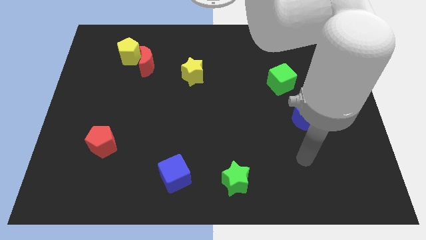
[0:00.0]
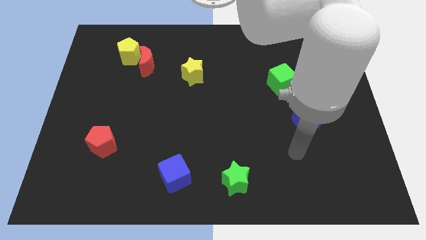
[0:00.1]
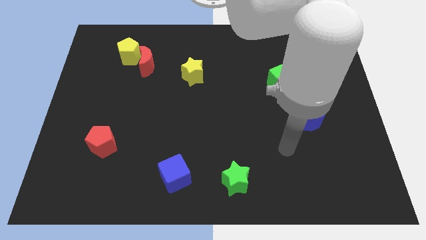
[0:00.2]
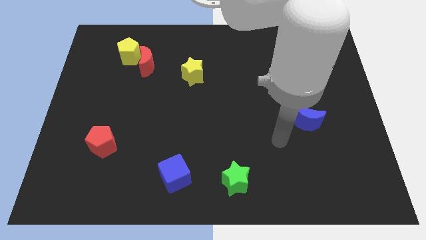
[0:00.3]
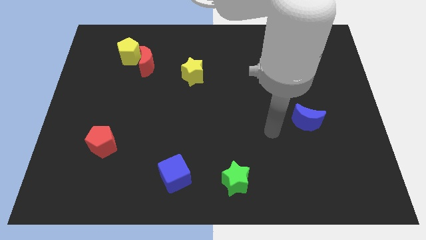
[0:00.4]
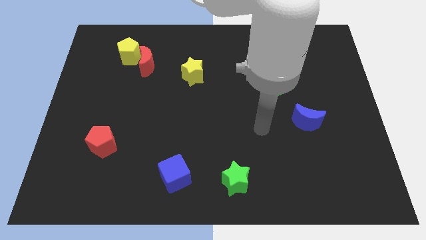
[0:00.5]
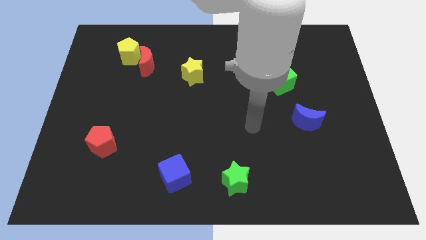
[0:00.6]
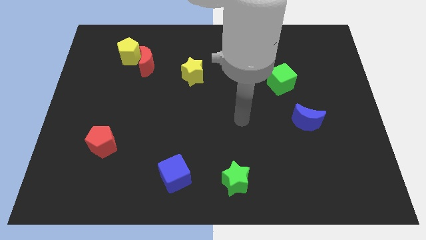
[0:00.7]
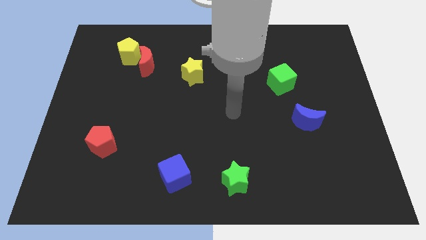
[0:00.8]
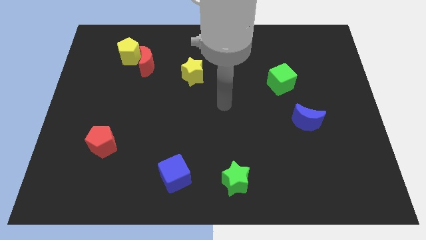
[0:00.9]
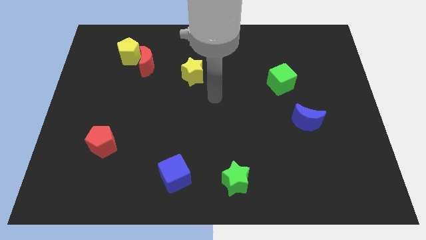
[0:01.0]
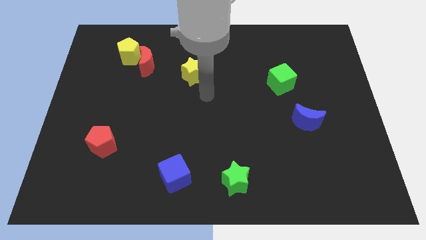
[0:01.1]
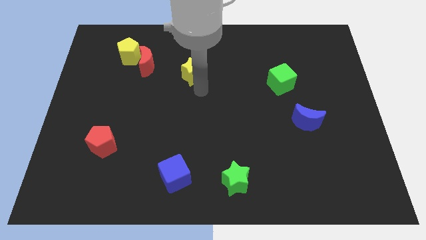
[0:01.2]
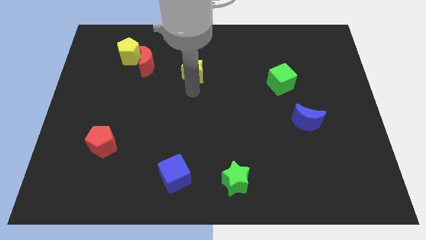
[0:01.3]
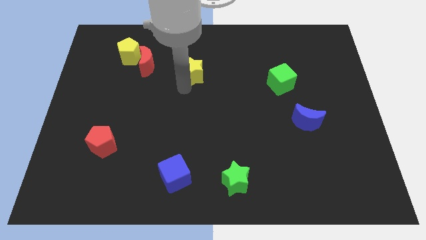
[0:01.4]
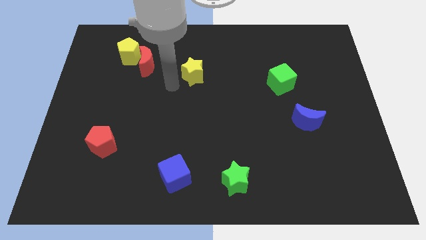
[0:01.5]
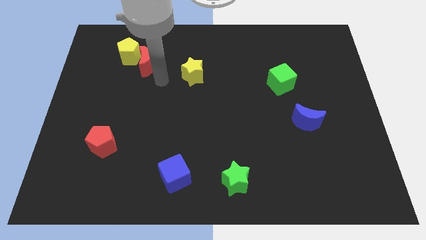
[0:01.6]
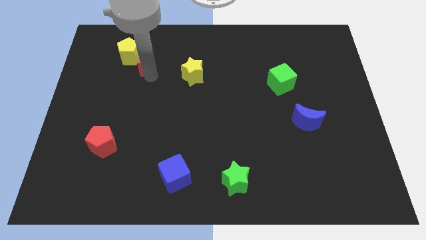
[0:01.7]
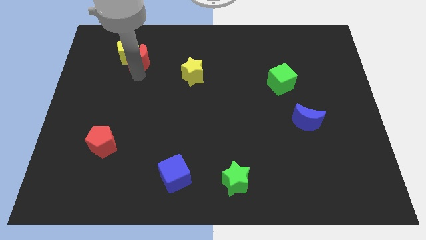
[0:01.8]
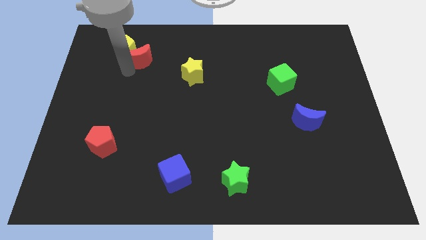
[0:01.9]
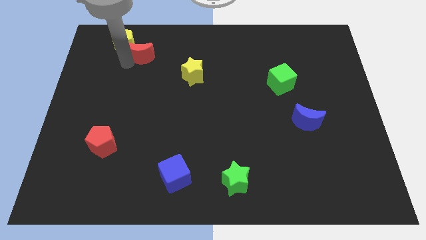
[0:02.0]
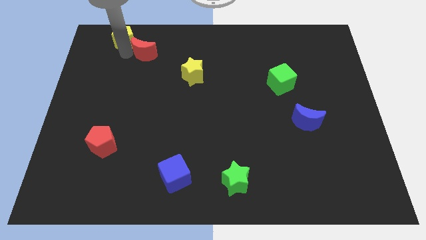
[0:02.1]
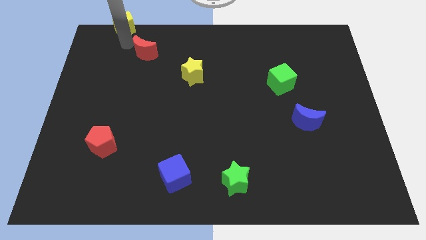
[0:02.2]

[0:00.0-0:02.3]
move the red moon away from the yellow pentagon

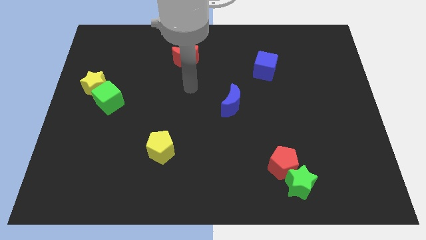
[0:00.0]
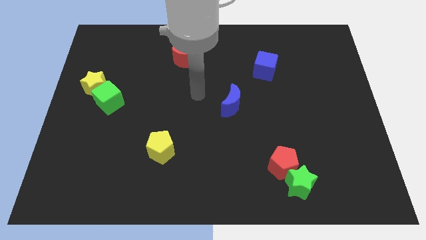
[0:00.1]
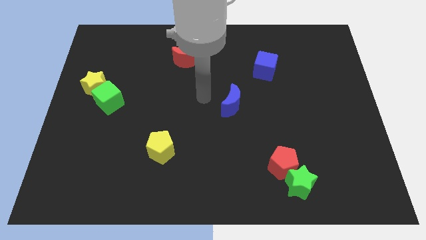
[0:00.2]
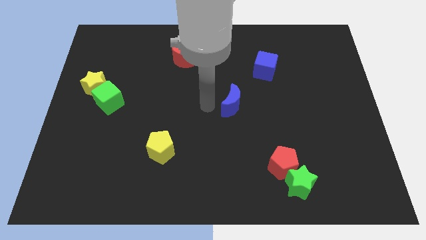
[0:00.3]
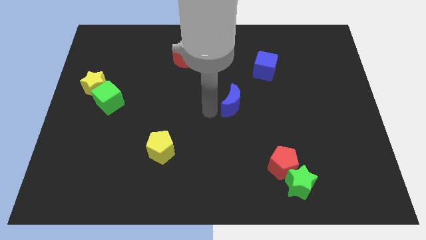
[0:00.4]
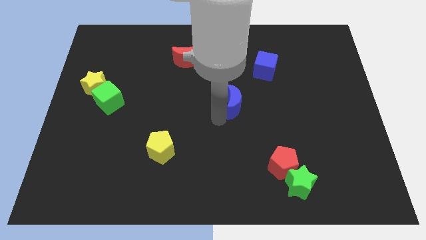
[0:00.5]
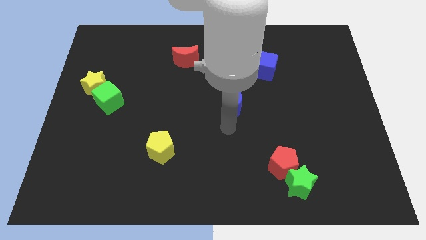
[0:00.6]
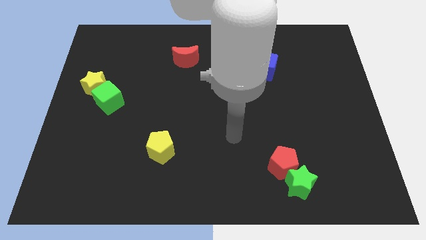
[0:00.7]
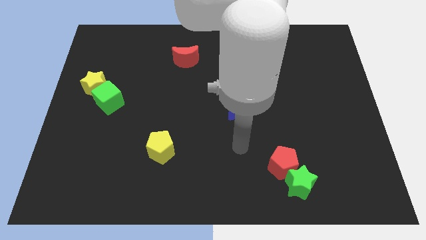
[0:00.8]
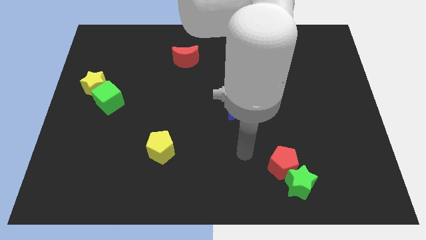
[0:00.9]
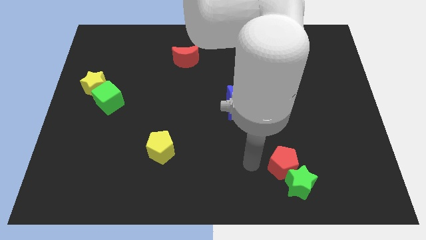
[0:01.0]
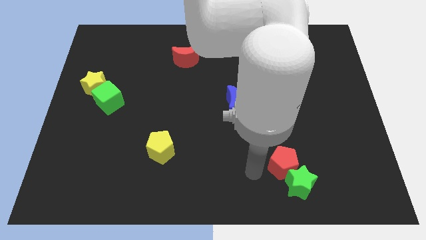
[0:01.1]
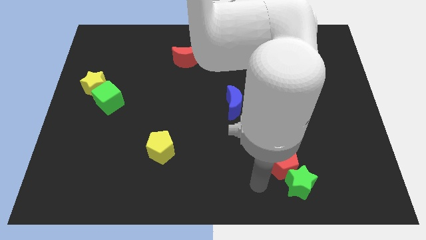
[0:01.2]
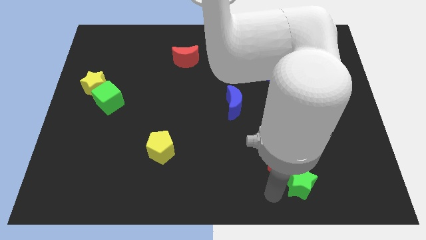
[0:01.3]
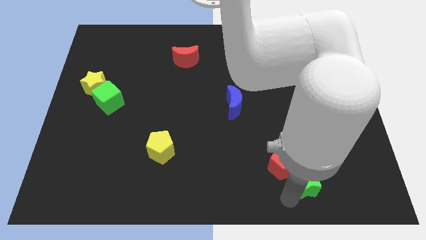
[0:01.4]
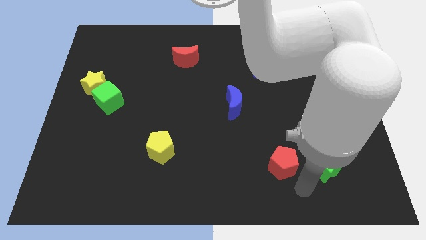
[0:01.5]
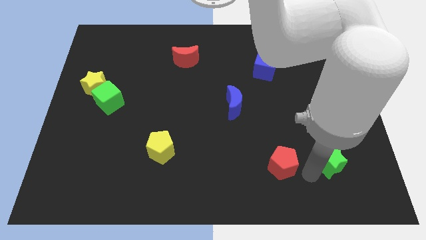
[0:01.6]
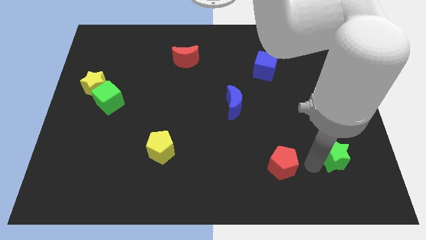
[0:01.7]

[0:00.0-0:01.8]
pull the red pentagon apart from the green star

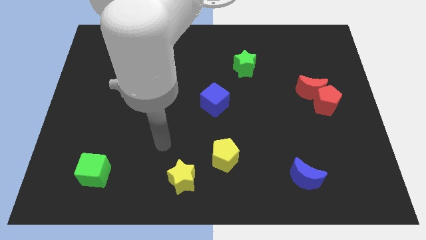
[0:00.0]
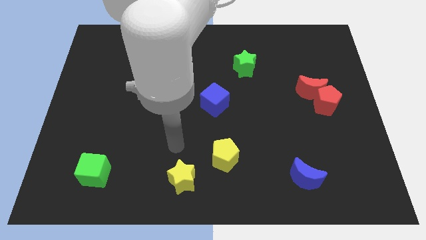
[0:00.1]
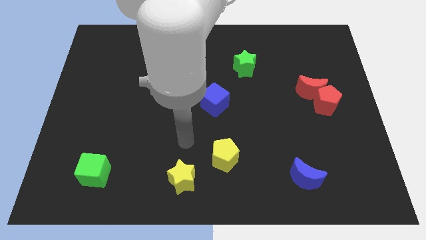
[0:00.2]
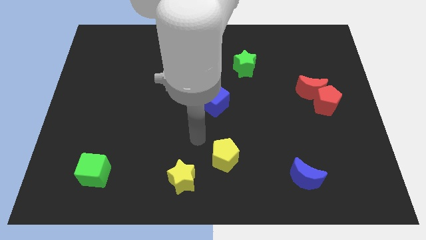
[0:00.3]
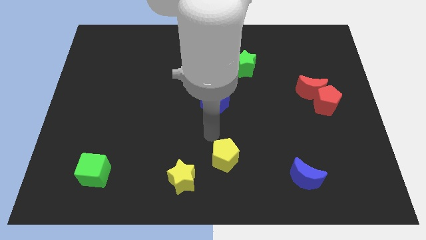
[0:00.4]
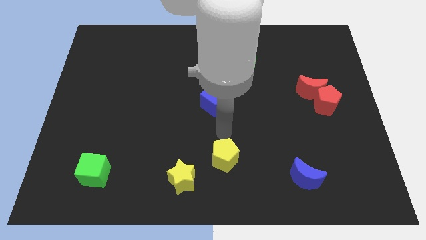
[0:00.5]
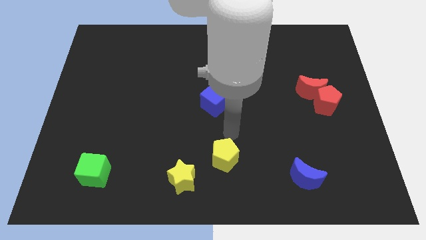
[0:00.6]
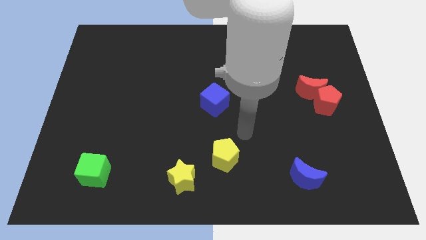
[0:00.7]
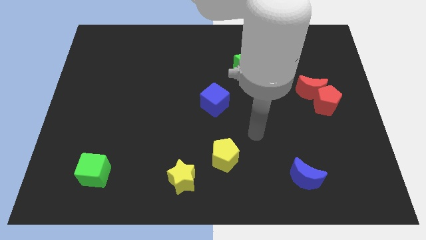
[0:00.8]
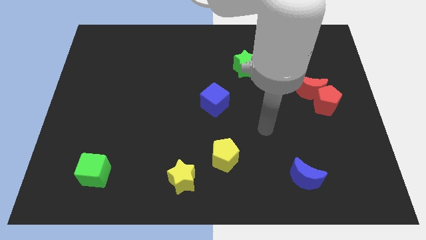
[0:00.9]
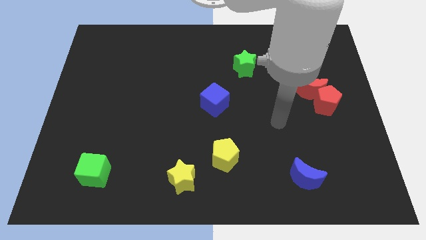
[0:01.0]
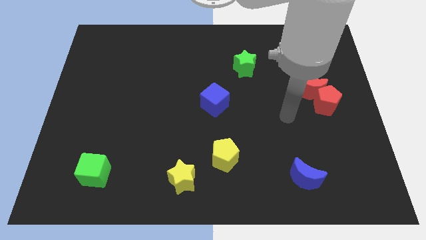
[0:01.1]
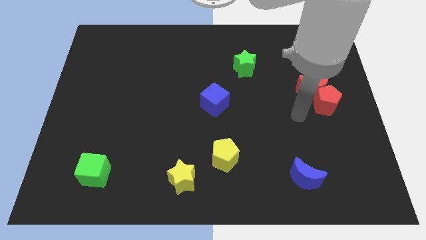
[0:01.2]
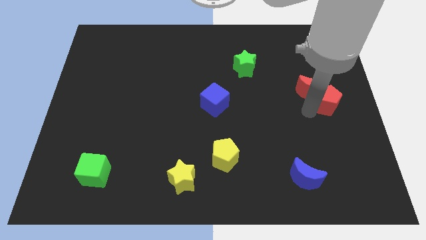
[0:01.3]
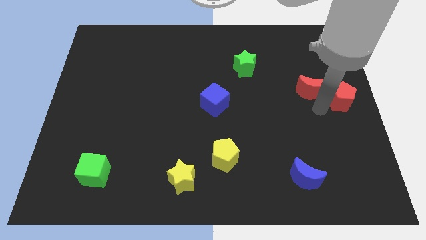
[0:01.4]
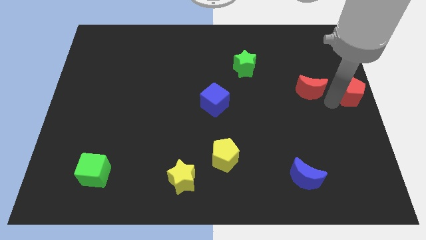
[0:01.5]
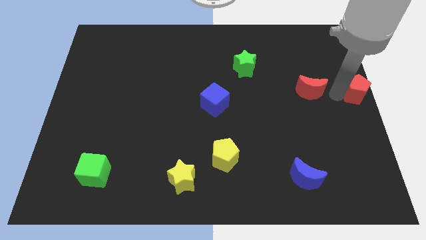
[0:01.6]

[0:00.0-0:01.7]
move the red moon away from the red pentagon

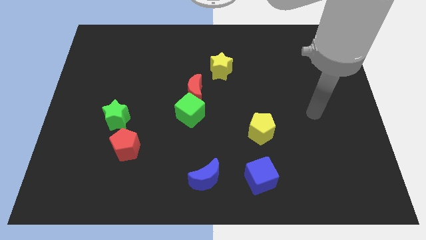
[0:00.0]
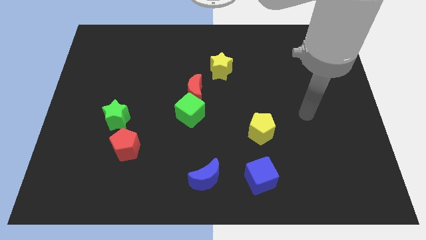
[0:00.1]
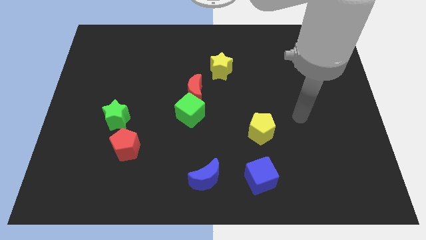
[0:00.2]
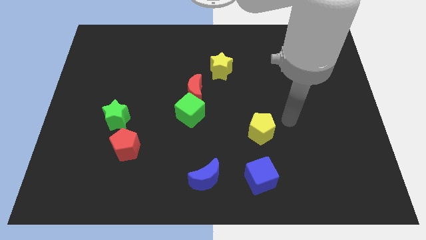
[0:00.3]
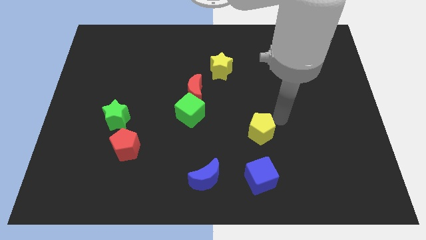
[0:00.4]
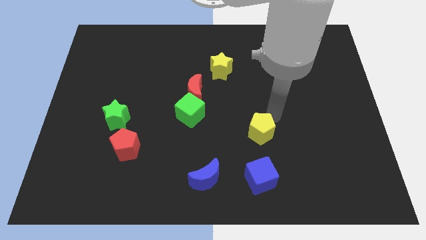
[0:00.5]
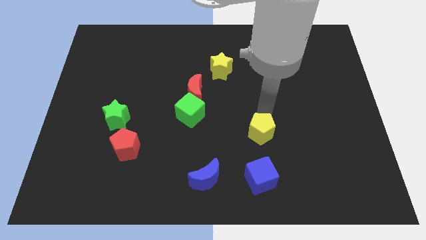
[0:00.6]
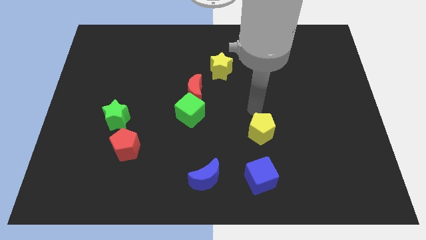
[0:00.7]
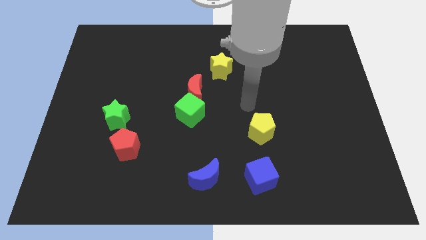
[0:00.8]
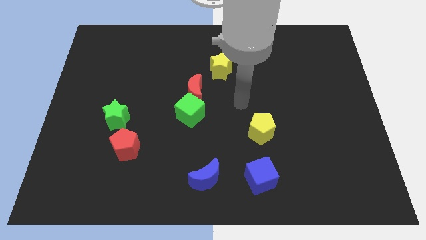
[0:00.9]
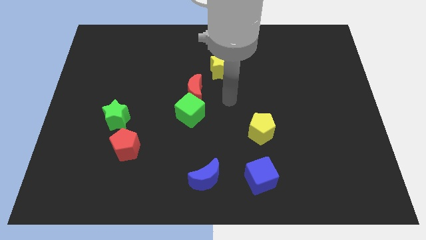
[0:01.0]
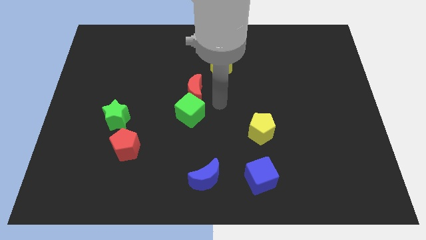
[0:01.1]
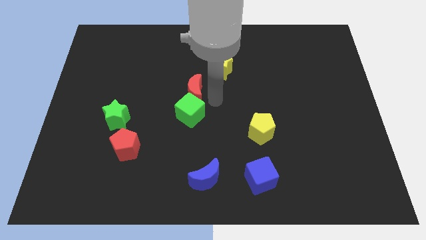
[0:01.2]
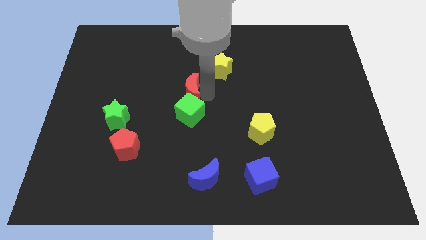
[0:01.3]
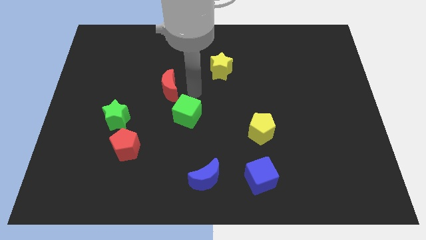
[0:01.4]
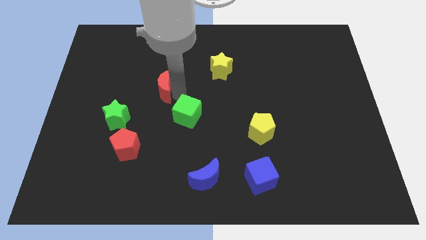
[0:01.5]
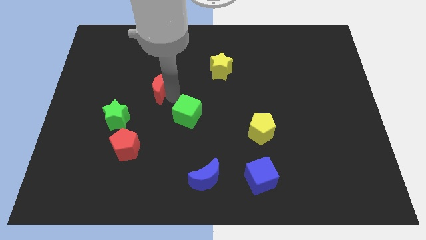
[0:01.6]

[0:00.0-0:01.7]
pull the green cube apart from the red moon

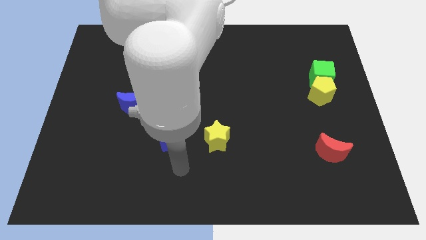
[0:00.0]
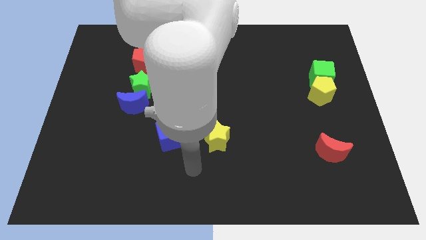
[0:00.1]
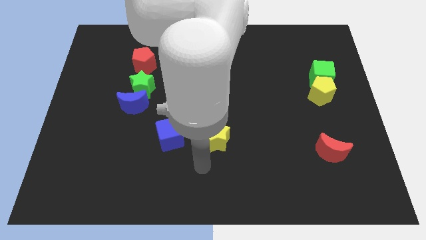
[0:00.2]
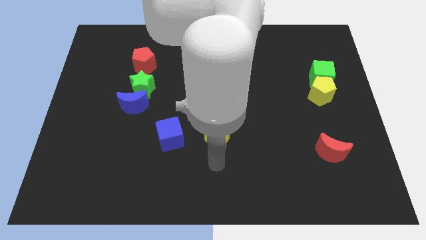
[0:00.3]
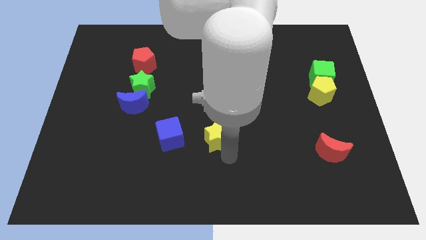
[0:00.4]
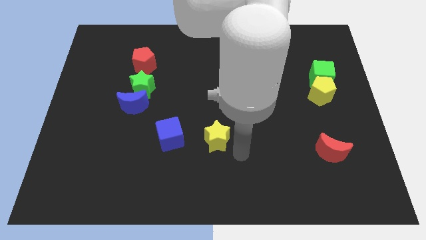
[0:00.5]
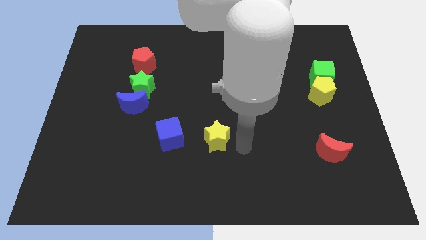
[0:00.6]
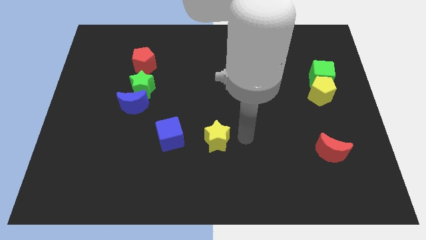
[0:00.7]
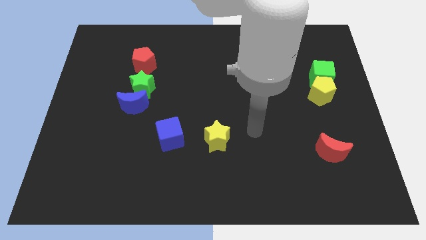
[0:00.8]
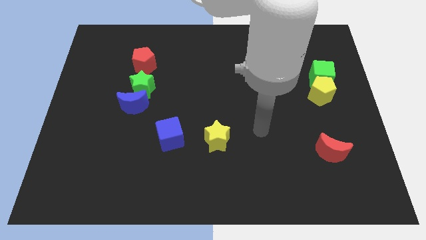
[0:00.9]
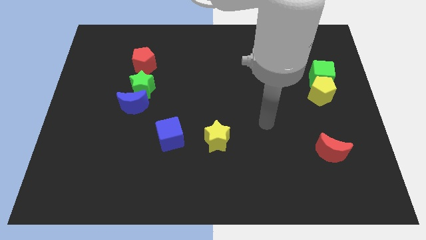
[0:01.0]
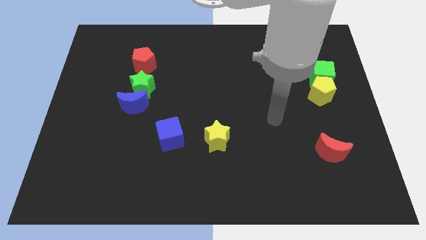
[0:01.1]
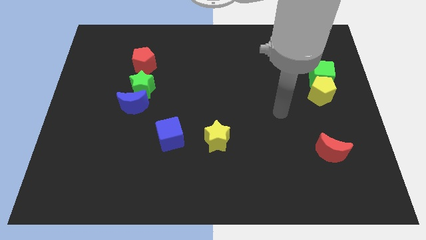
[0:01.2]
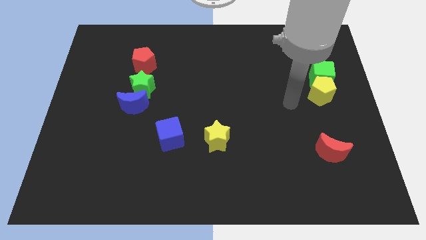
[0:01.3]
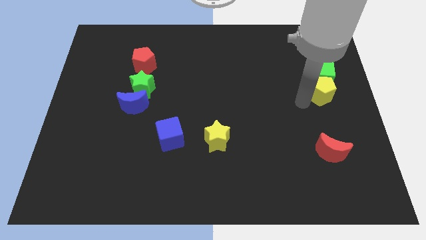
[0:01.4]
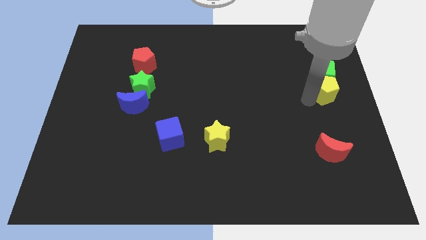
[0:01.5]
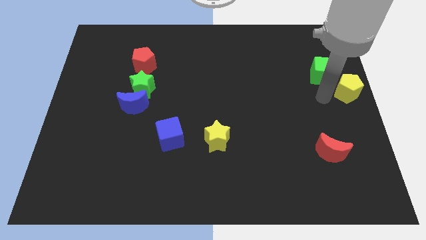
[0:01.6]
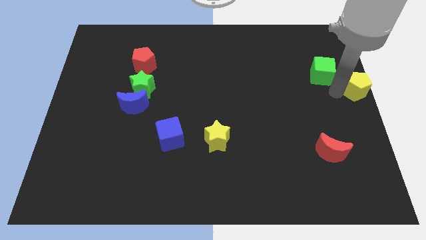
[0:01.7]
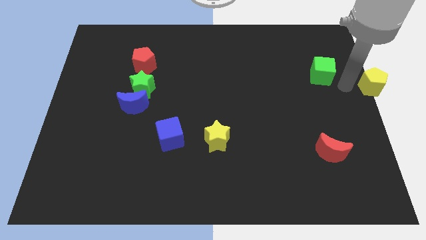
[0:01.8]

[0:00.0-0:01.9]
pull the green cube apart from the yellow pentagon
